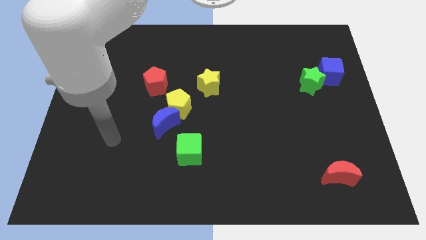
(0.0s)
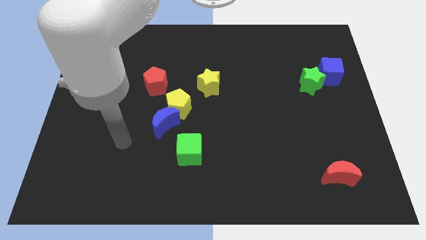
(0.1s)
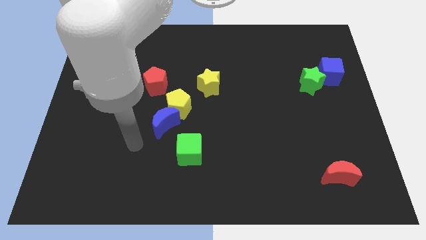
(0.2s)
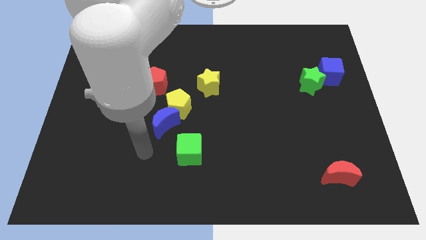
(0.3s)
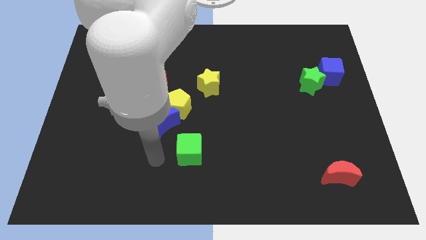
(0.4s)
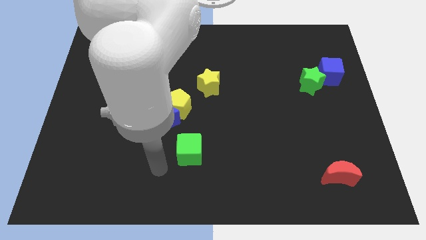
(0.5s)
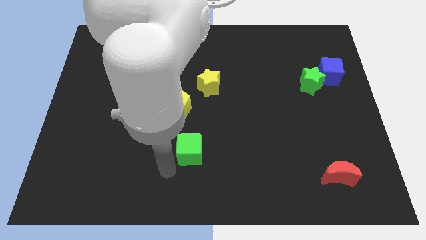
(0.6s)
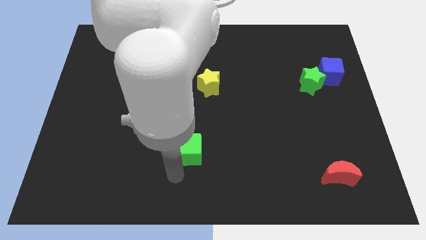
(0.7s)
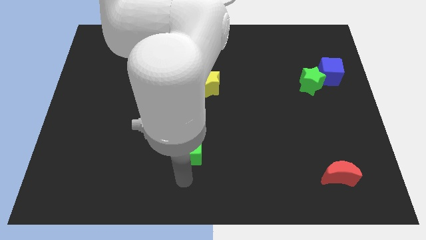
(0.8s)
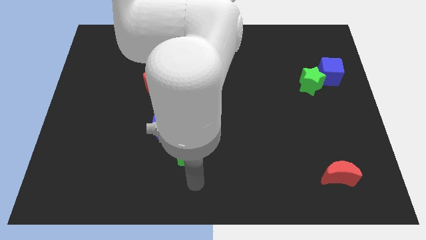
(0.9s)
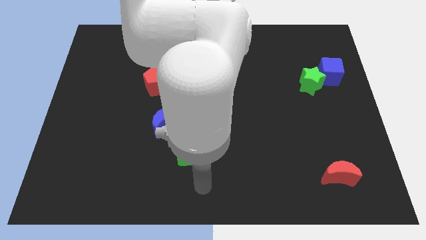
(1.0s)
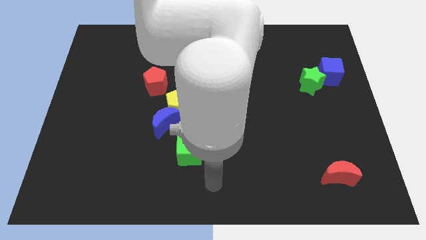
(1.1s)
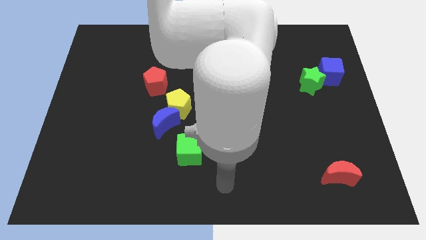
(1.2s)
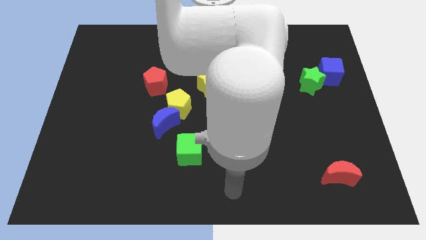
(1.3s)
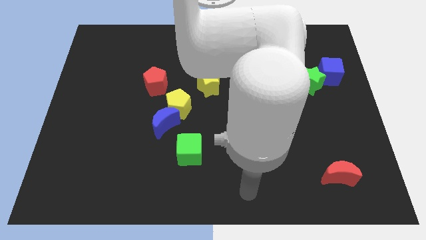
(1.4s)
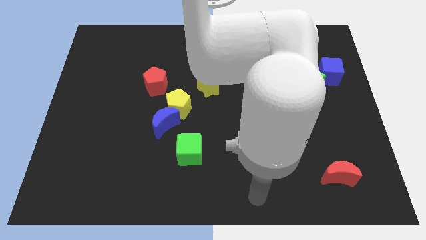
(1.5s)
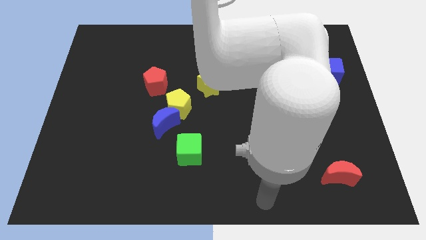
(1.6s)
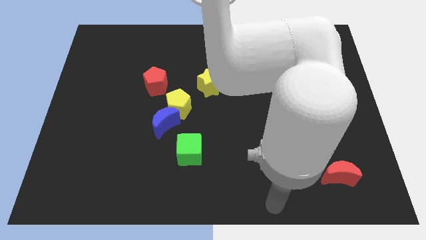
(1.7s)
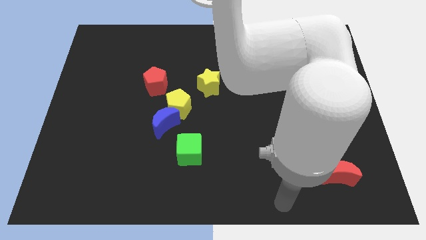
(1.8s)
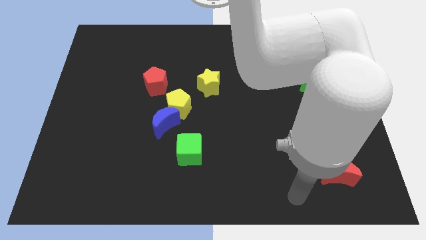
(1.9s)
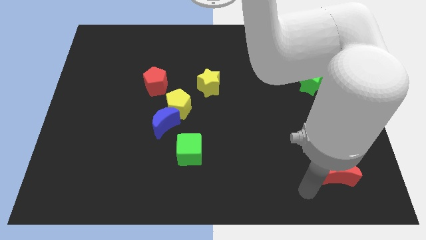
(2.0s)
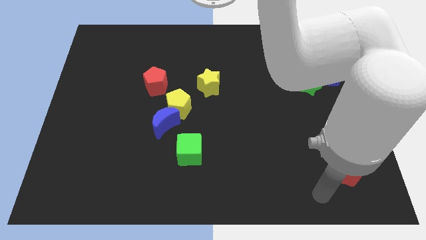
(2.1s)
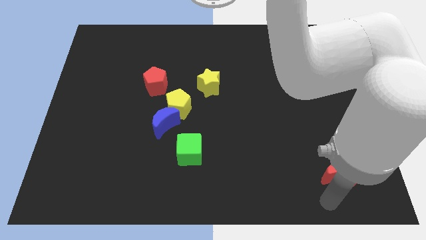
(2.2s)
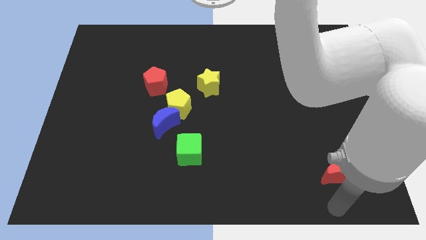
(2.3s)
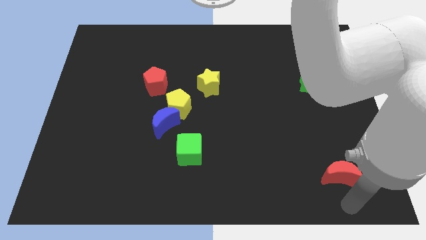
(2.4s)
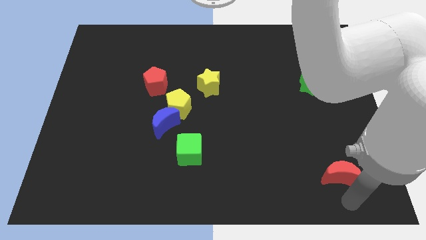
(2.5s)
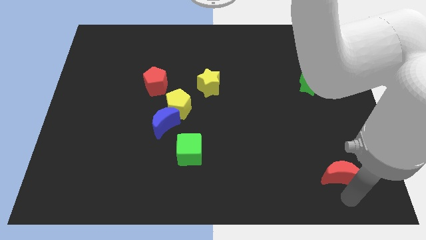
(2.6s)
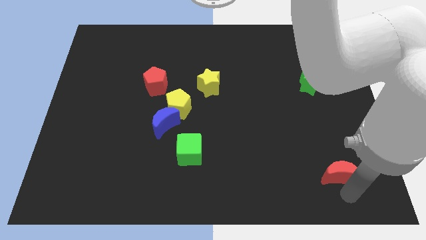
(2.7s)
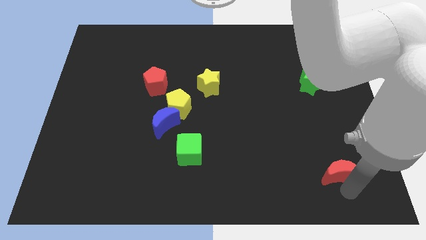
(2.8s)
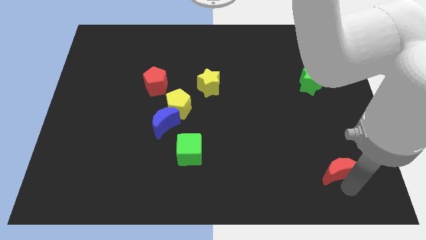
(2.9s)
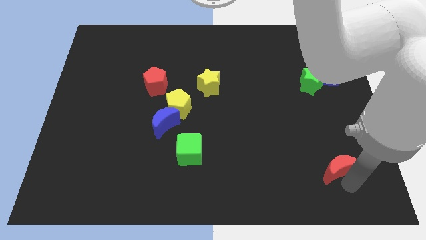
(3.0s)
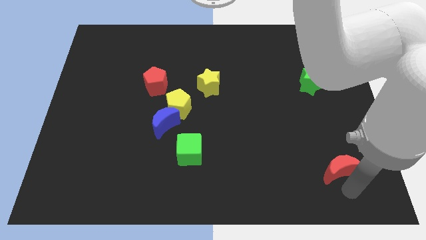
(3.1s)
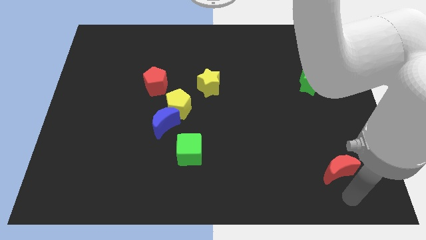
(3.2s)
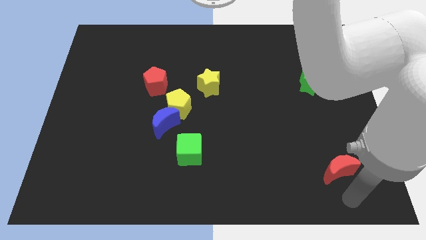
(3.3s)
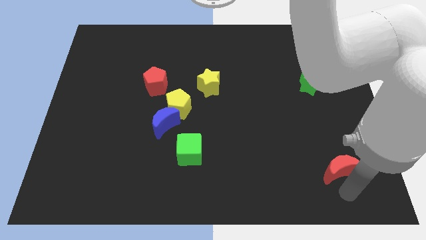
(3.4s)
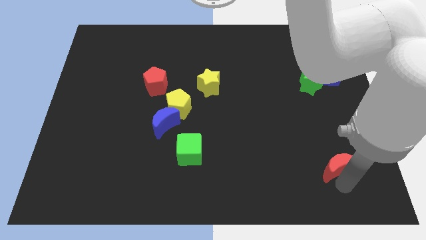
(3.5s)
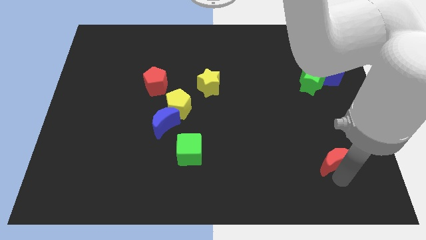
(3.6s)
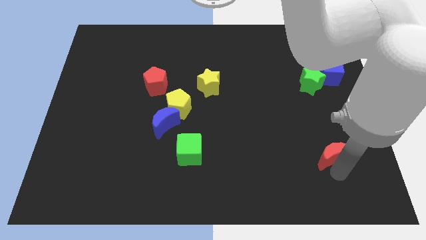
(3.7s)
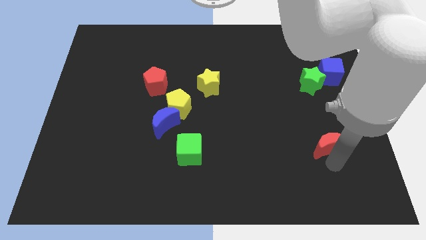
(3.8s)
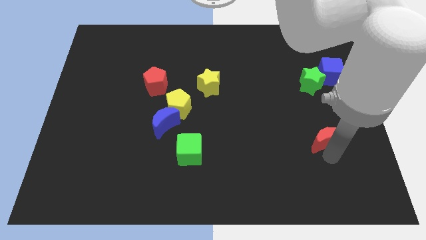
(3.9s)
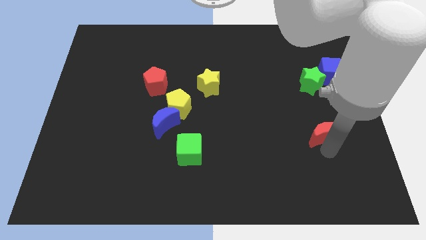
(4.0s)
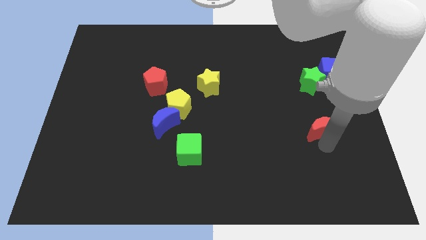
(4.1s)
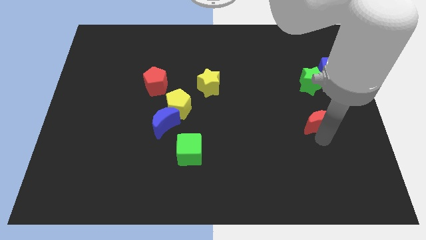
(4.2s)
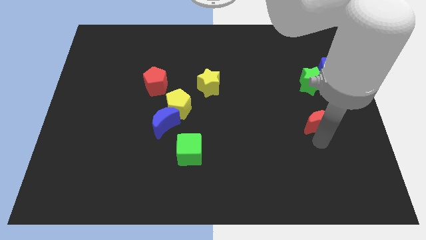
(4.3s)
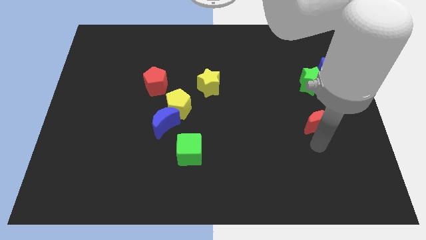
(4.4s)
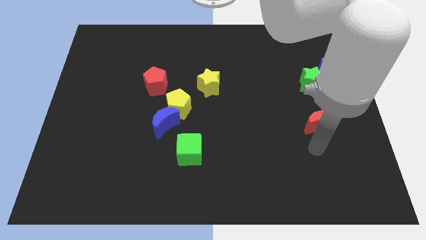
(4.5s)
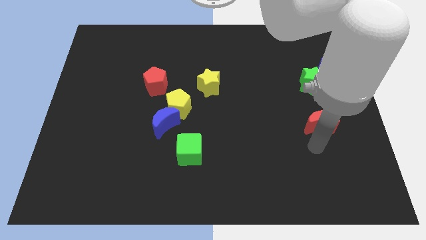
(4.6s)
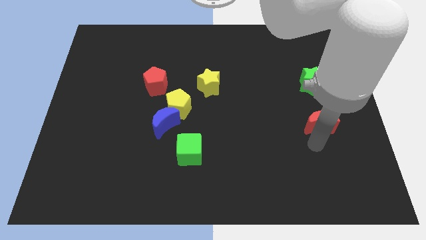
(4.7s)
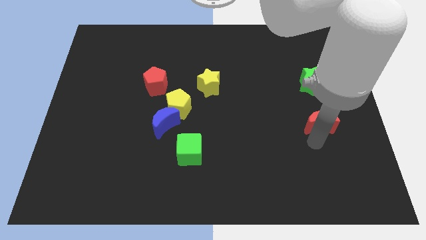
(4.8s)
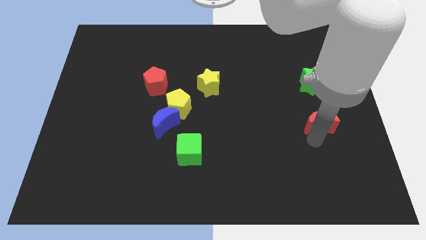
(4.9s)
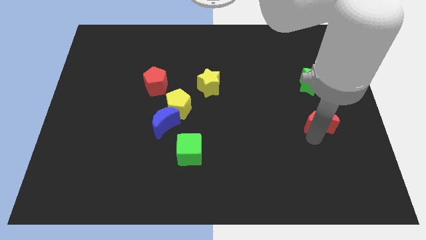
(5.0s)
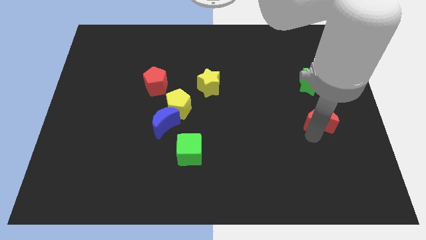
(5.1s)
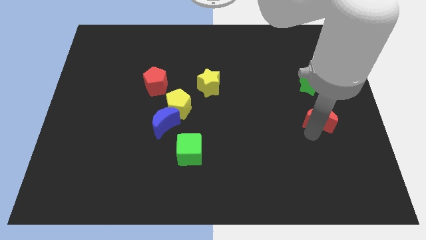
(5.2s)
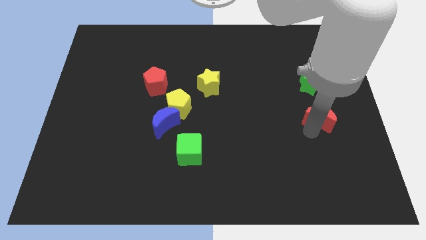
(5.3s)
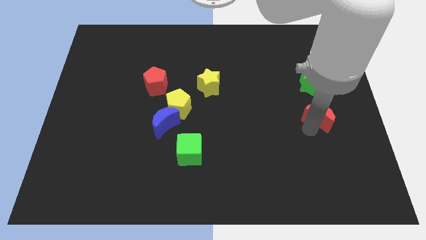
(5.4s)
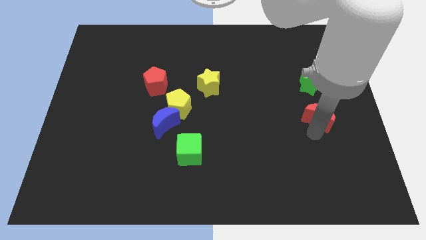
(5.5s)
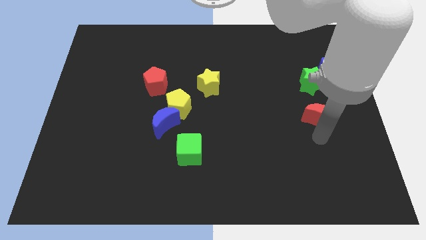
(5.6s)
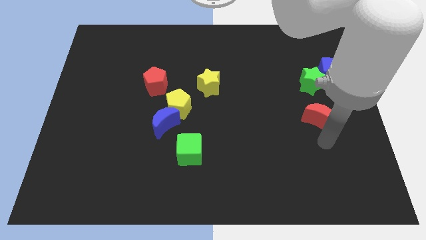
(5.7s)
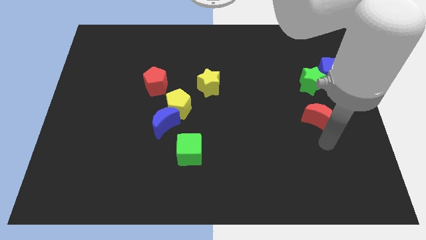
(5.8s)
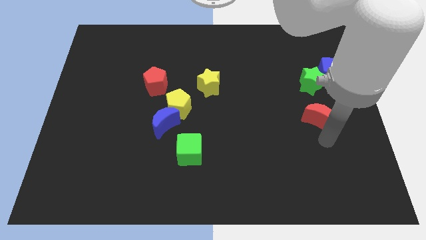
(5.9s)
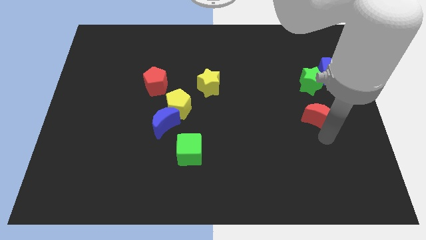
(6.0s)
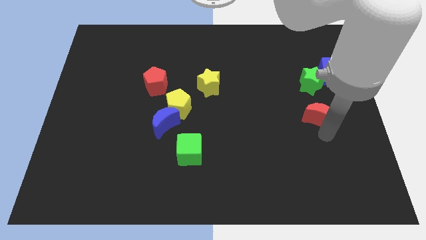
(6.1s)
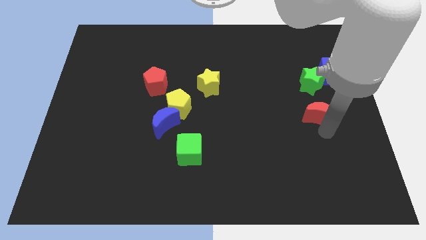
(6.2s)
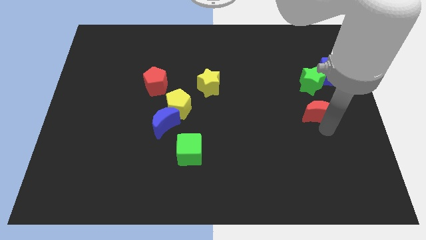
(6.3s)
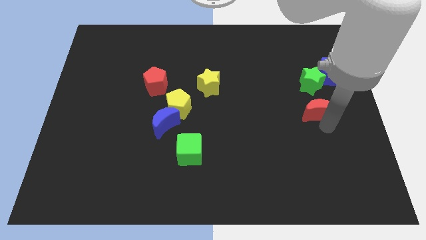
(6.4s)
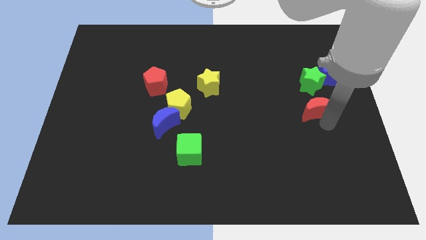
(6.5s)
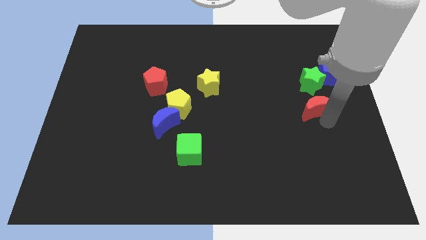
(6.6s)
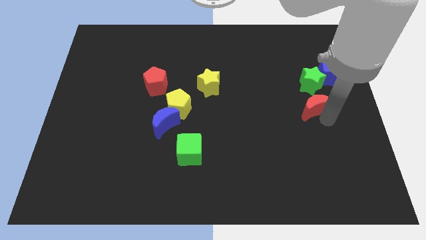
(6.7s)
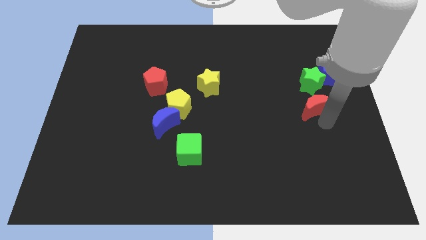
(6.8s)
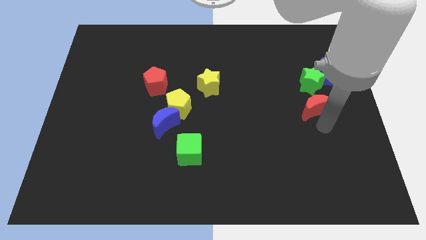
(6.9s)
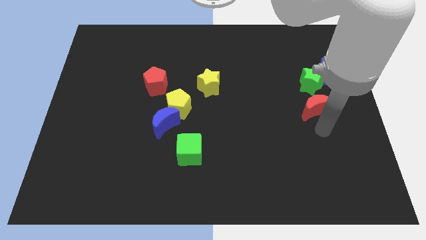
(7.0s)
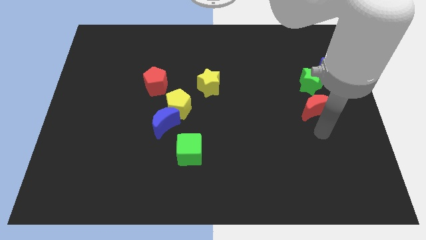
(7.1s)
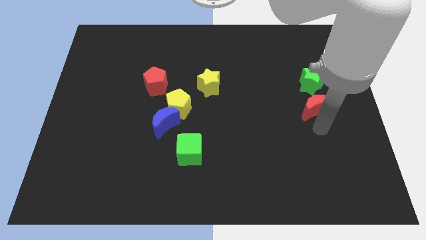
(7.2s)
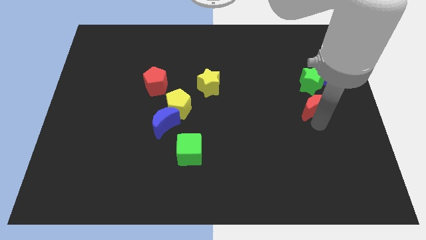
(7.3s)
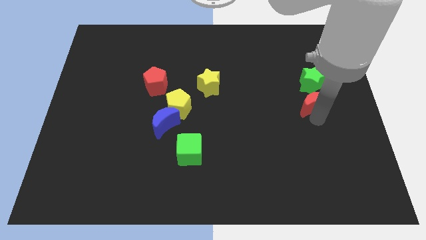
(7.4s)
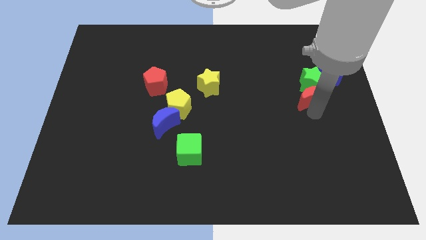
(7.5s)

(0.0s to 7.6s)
slide the red moon towards the green star

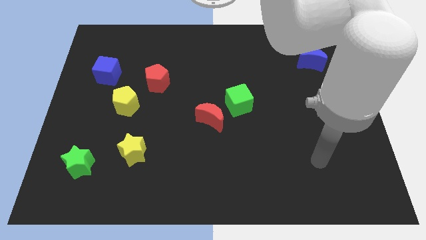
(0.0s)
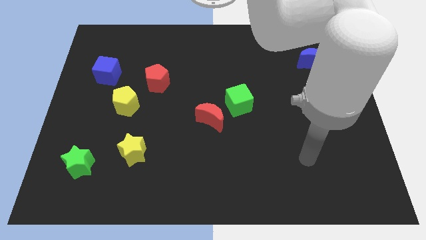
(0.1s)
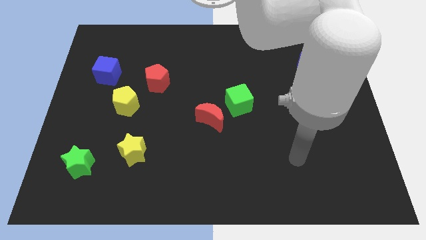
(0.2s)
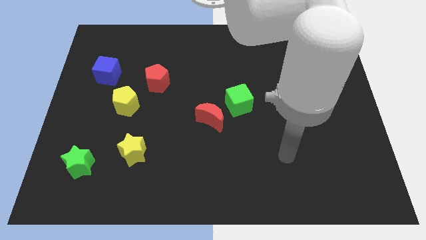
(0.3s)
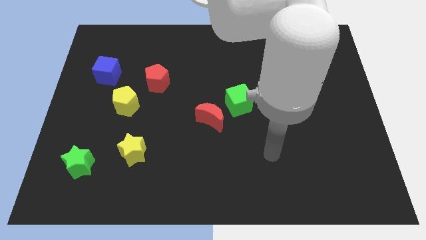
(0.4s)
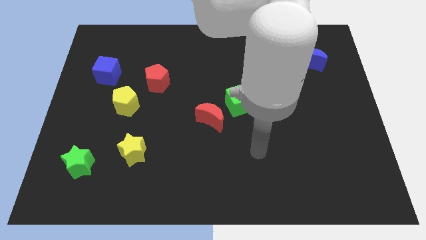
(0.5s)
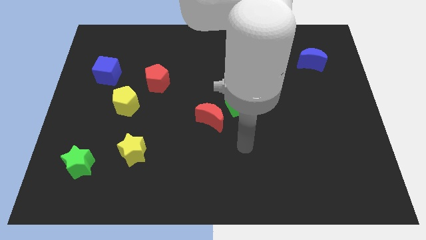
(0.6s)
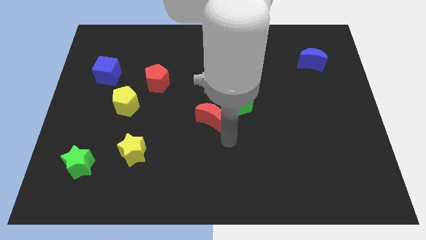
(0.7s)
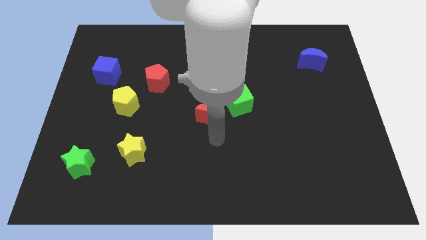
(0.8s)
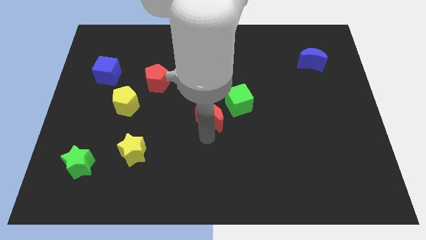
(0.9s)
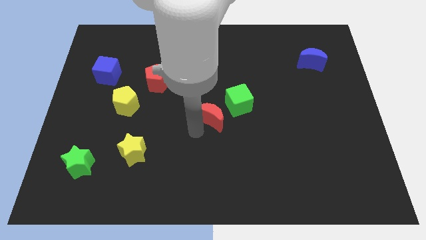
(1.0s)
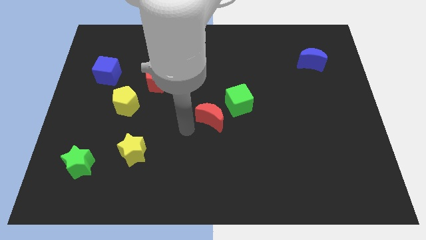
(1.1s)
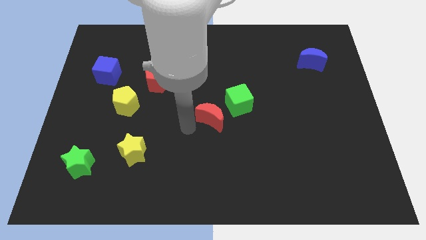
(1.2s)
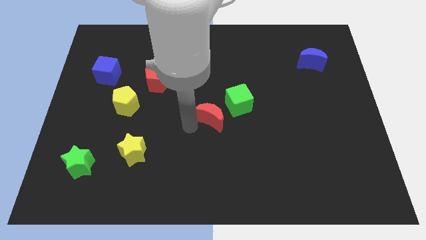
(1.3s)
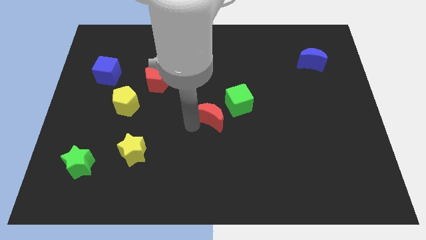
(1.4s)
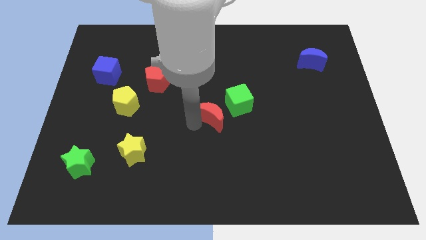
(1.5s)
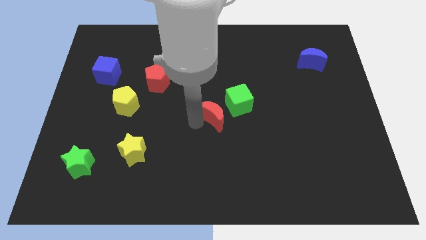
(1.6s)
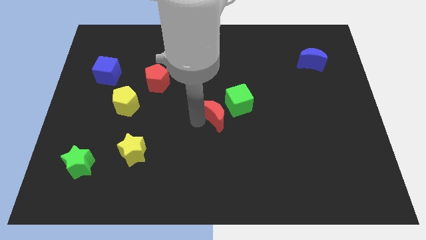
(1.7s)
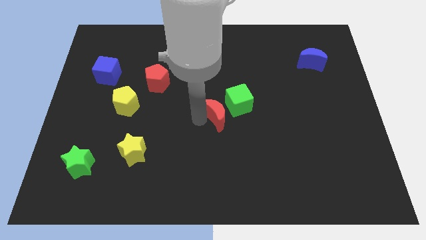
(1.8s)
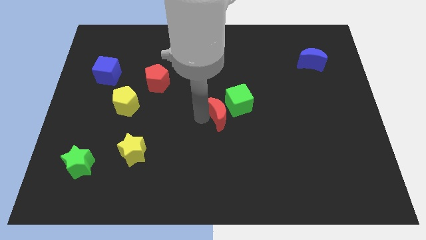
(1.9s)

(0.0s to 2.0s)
move the red moon close to the green cube
